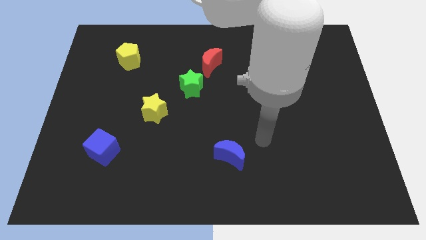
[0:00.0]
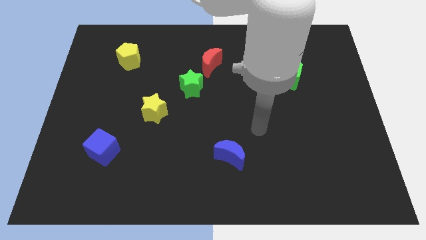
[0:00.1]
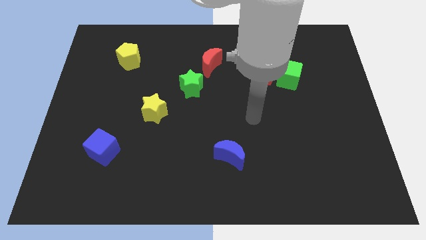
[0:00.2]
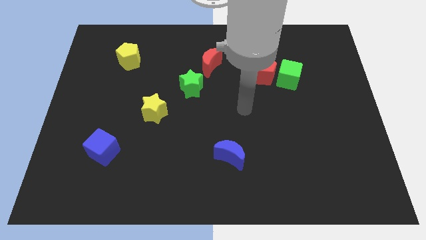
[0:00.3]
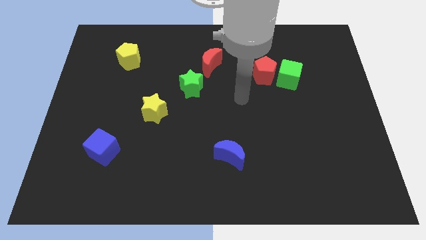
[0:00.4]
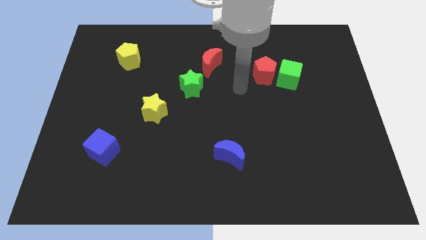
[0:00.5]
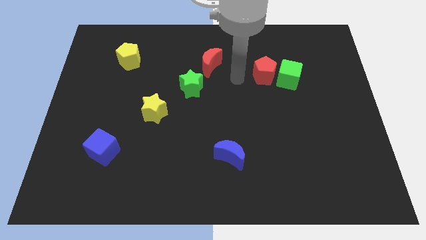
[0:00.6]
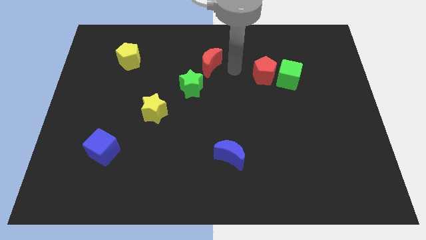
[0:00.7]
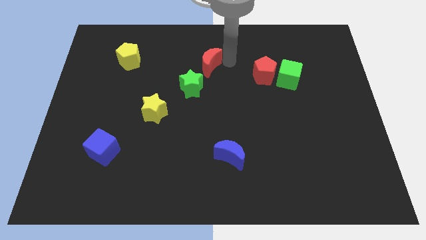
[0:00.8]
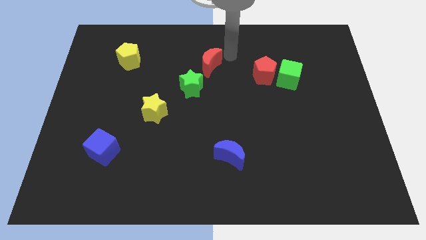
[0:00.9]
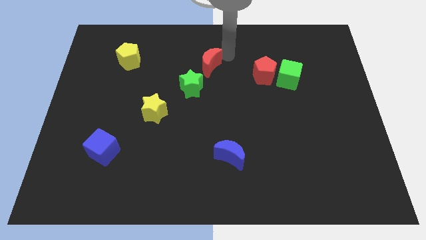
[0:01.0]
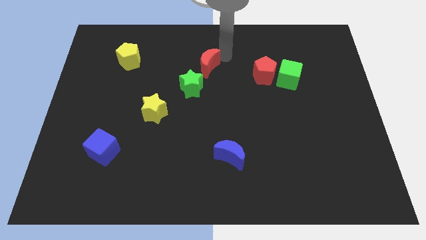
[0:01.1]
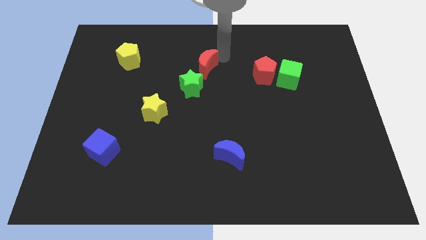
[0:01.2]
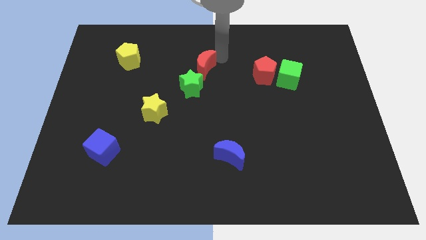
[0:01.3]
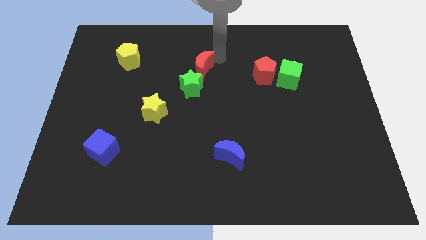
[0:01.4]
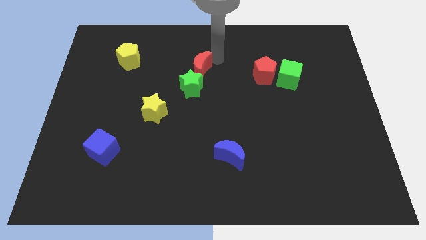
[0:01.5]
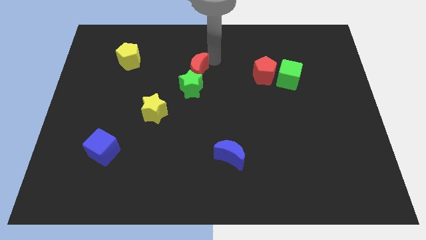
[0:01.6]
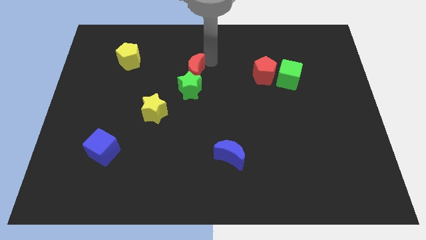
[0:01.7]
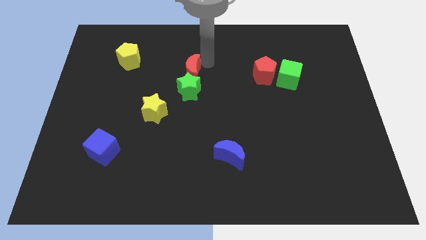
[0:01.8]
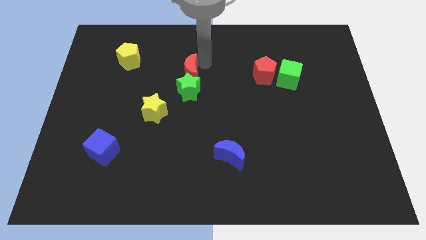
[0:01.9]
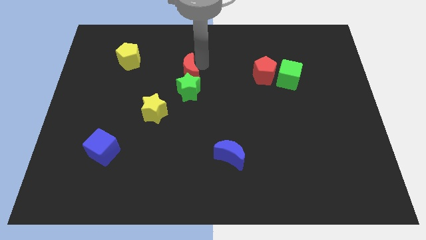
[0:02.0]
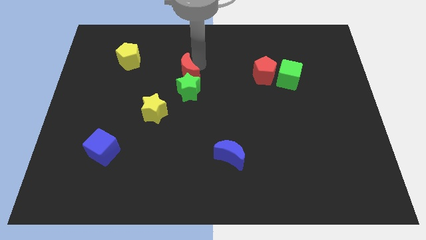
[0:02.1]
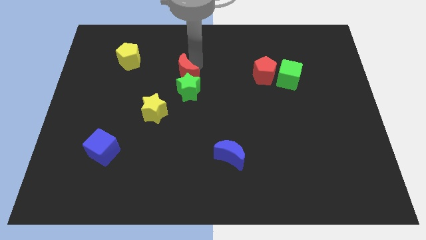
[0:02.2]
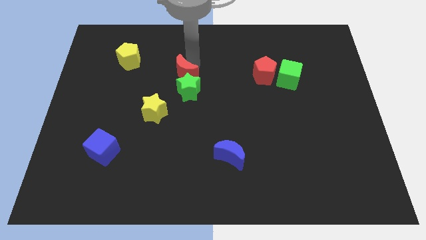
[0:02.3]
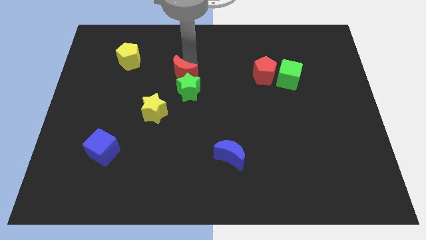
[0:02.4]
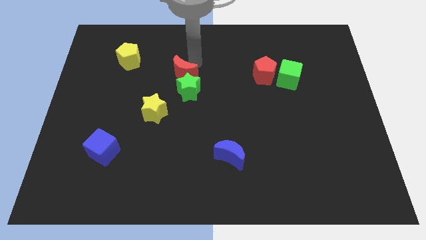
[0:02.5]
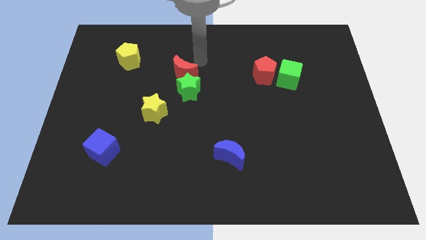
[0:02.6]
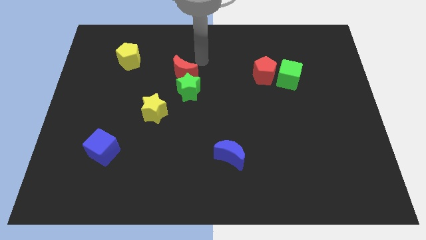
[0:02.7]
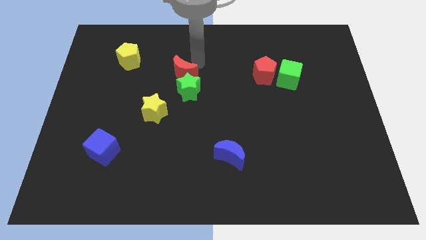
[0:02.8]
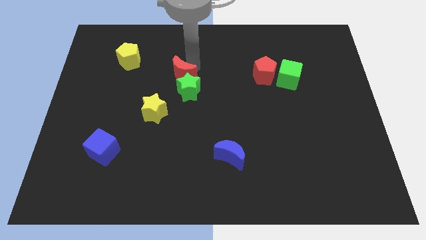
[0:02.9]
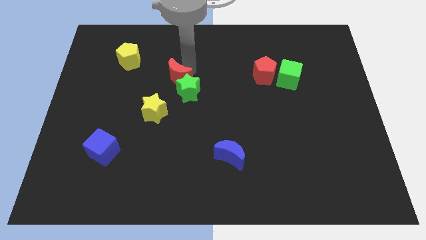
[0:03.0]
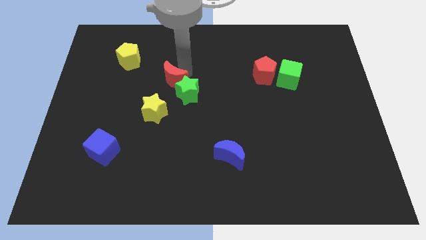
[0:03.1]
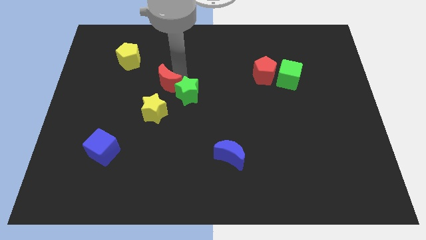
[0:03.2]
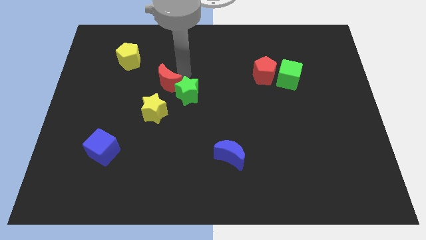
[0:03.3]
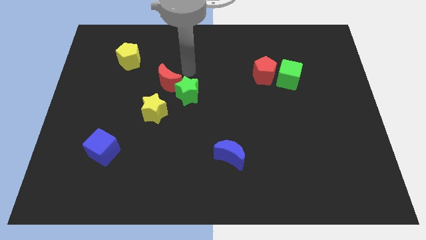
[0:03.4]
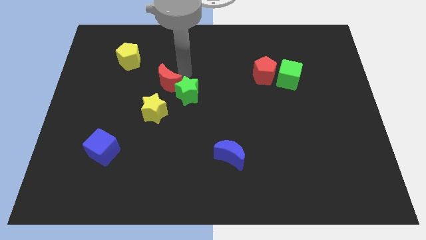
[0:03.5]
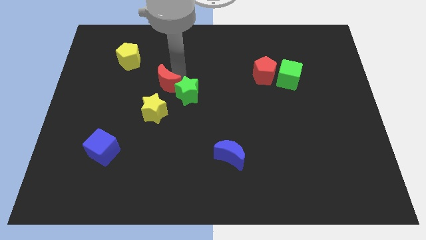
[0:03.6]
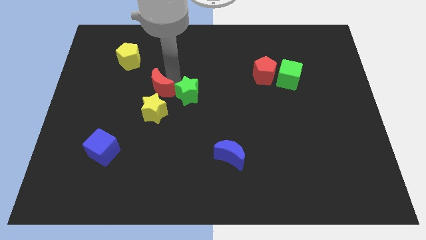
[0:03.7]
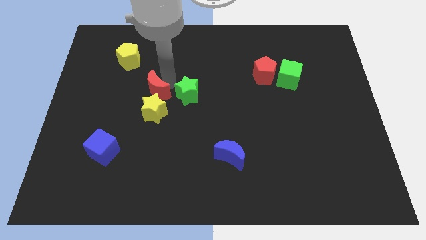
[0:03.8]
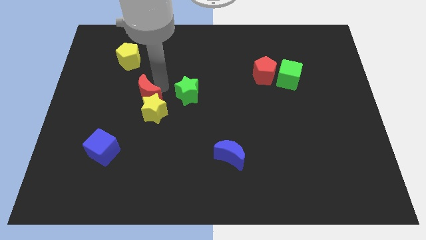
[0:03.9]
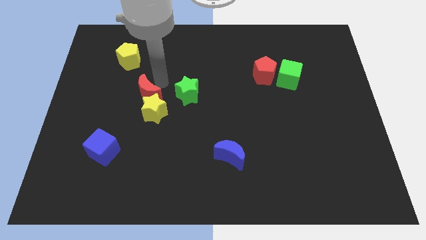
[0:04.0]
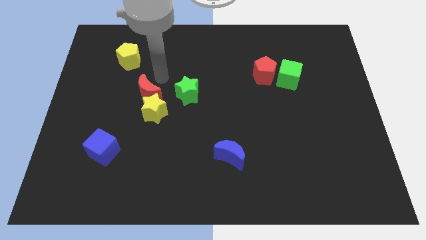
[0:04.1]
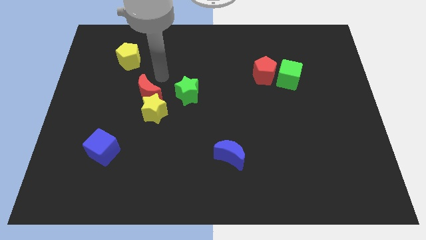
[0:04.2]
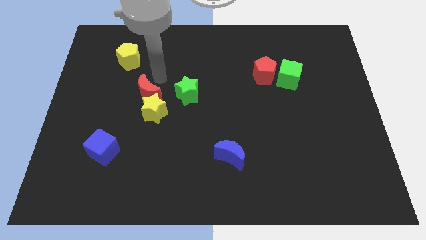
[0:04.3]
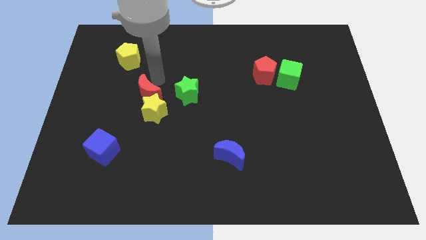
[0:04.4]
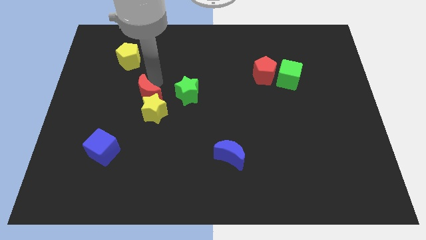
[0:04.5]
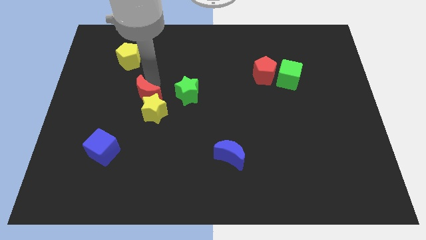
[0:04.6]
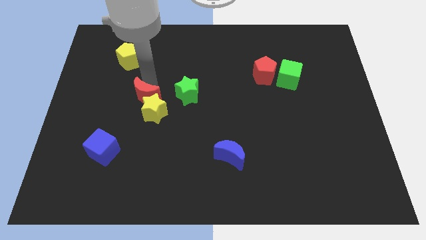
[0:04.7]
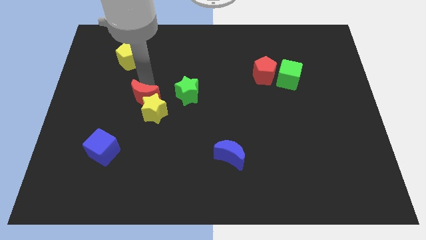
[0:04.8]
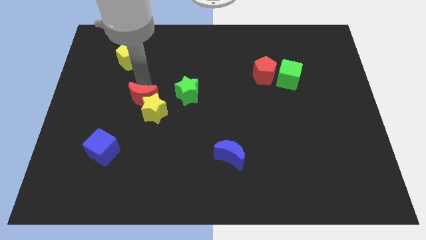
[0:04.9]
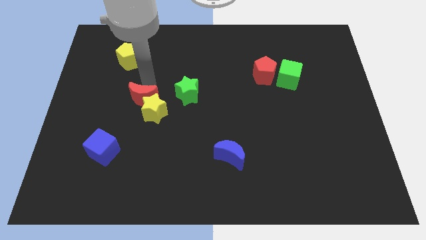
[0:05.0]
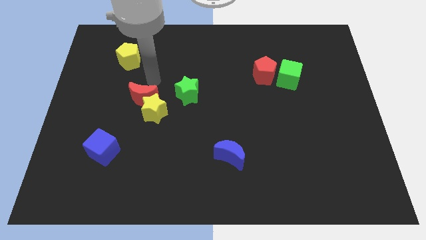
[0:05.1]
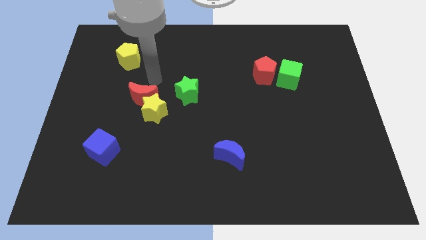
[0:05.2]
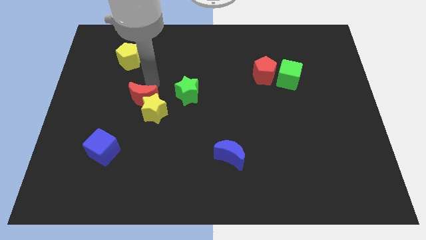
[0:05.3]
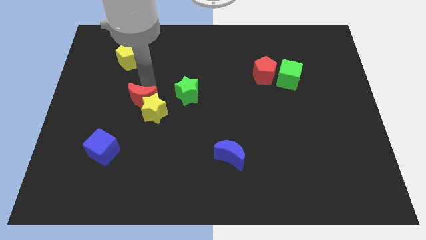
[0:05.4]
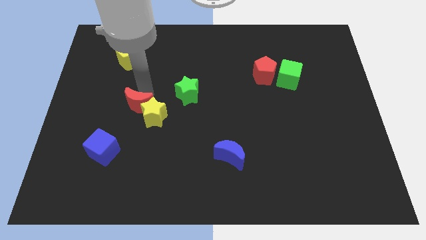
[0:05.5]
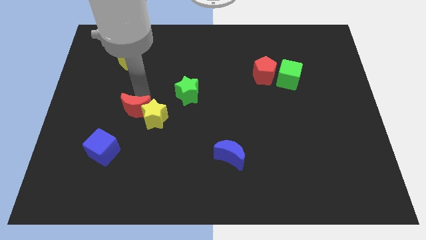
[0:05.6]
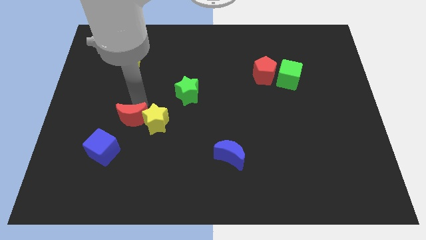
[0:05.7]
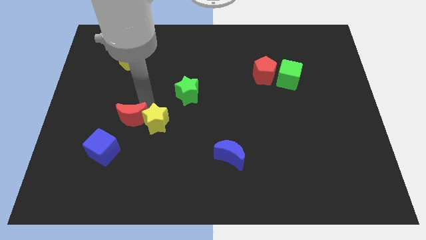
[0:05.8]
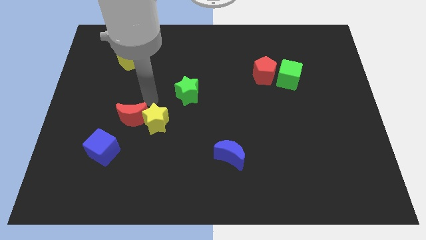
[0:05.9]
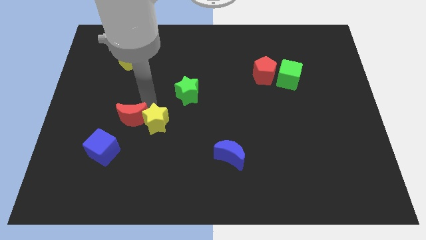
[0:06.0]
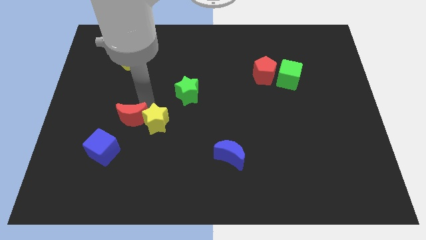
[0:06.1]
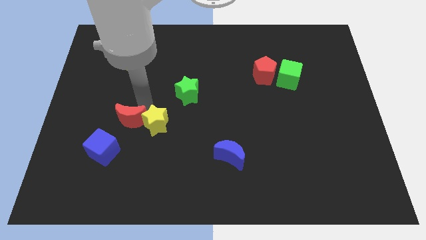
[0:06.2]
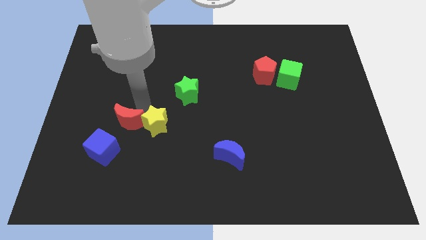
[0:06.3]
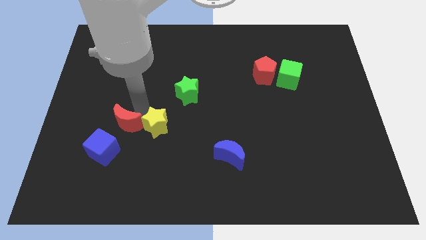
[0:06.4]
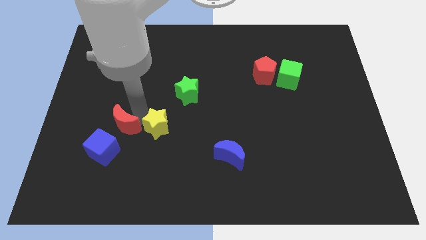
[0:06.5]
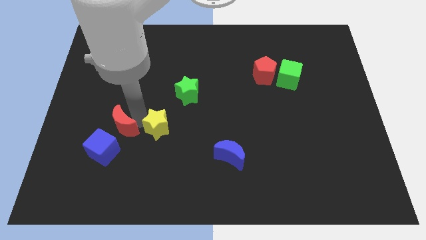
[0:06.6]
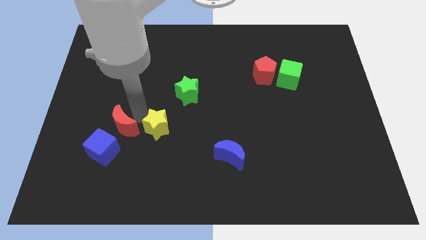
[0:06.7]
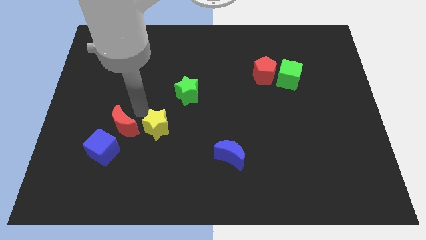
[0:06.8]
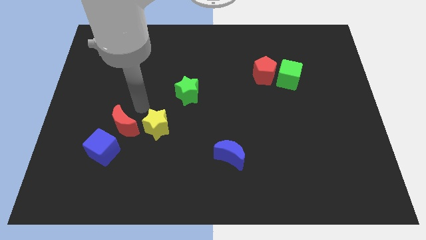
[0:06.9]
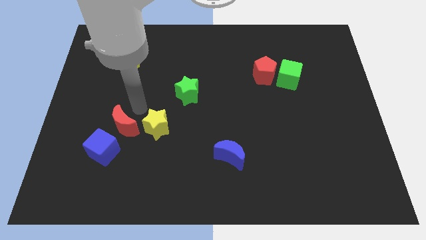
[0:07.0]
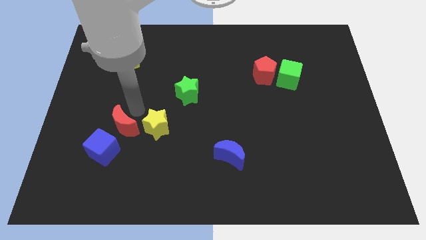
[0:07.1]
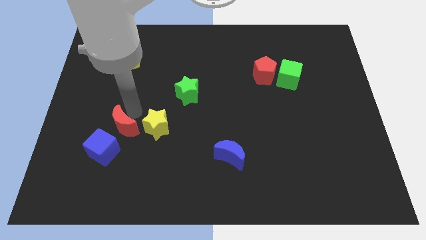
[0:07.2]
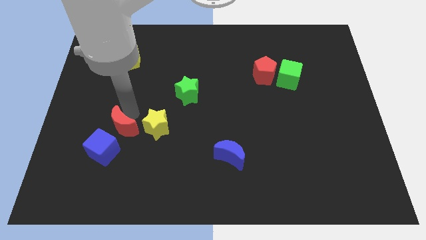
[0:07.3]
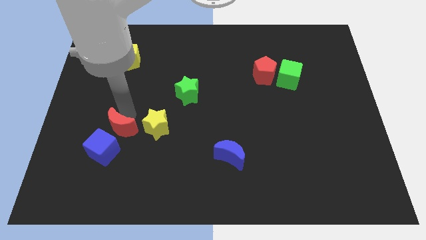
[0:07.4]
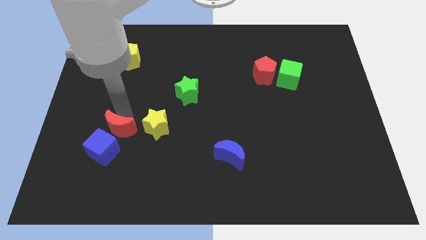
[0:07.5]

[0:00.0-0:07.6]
move the red moon next to the blue cube
